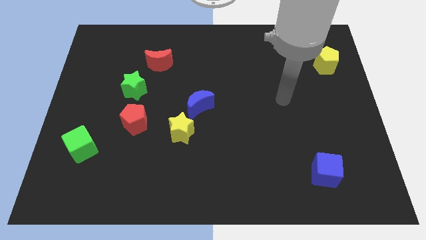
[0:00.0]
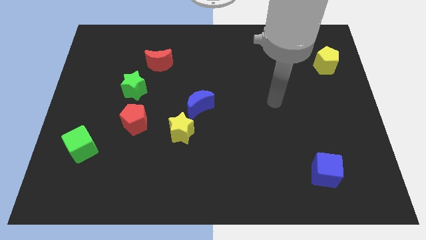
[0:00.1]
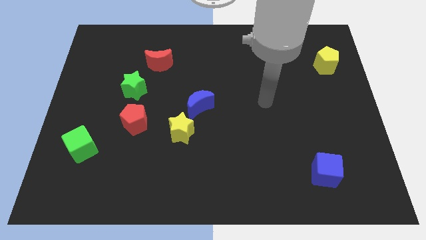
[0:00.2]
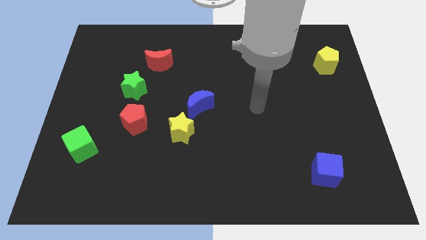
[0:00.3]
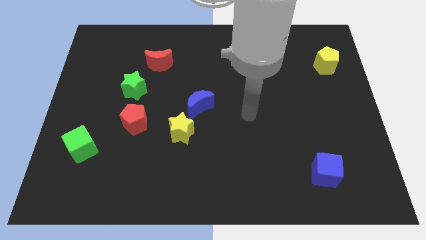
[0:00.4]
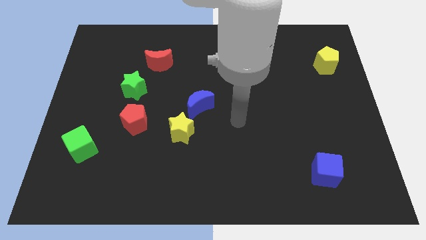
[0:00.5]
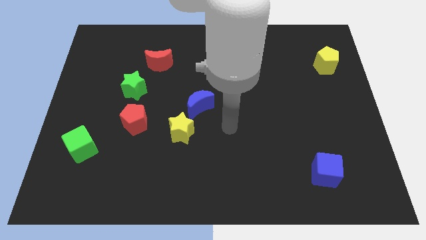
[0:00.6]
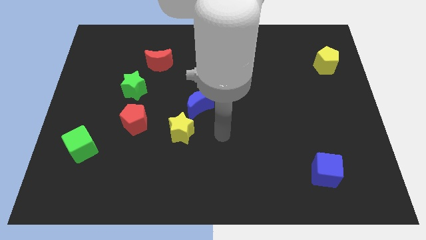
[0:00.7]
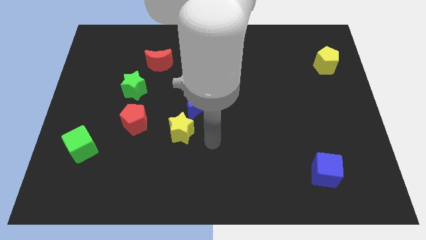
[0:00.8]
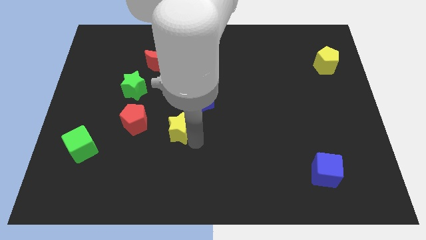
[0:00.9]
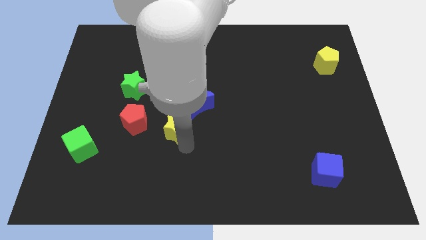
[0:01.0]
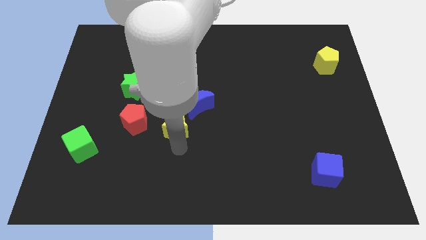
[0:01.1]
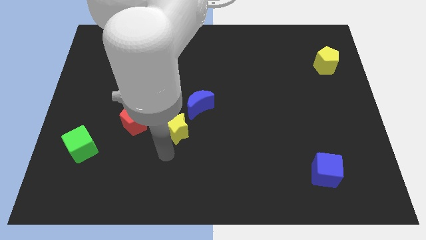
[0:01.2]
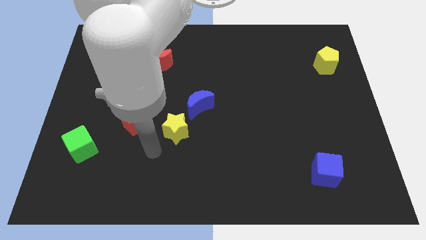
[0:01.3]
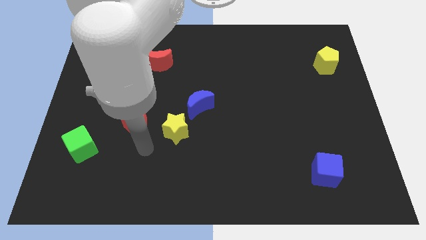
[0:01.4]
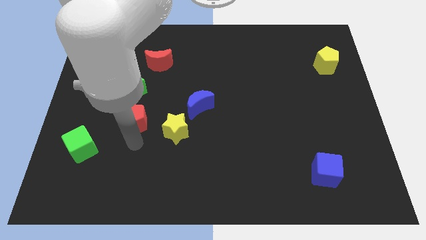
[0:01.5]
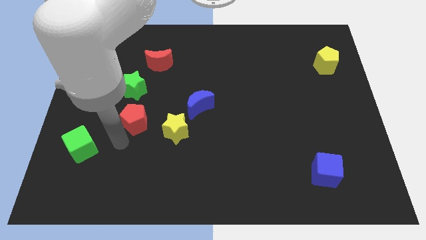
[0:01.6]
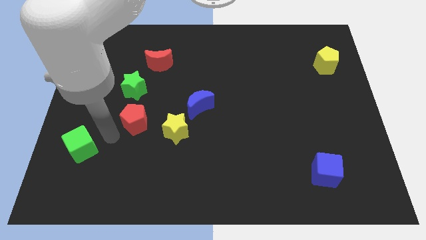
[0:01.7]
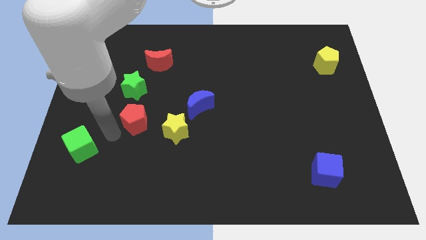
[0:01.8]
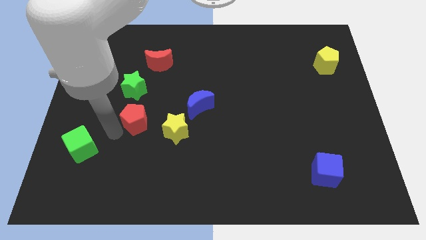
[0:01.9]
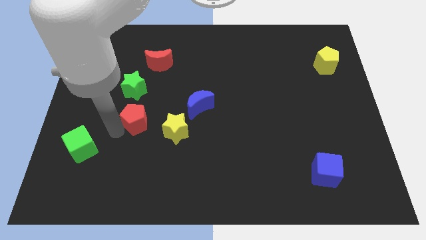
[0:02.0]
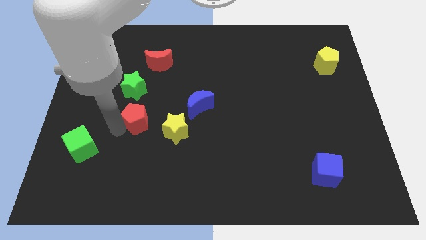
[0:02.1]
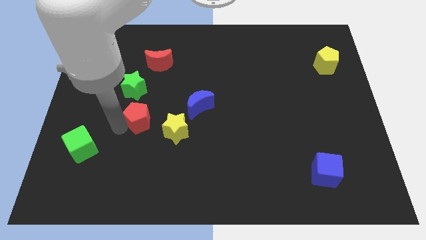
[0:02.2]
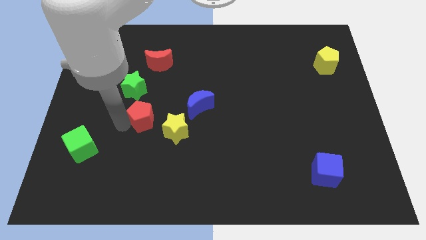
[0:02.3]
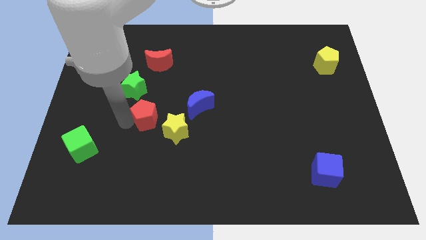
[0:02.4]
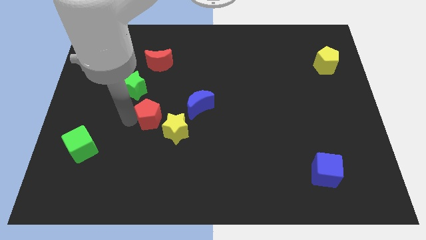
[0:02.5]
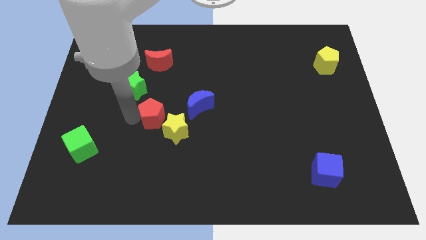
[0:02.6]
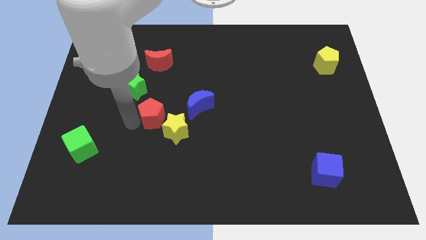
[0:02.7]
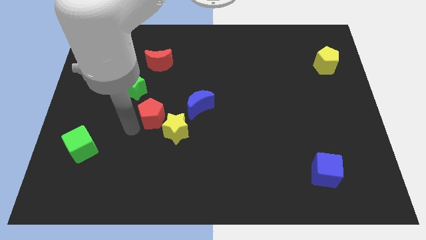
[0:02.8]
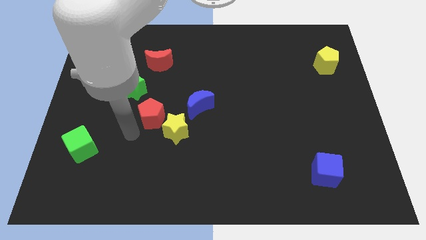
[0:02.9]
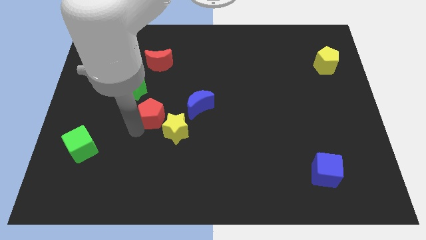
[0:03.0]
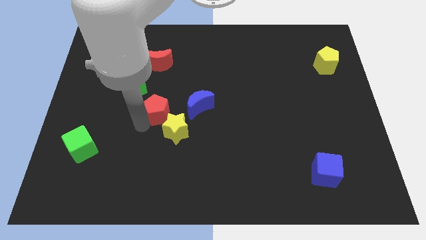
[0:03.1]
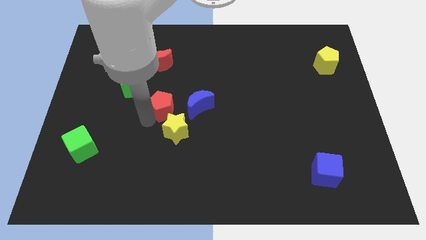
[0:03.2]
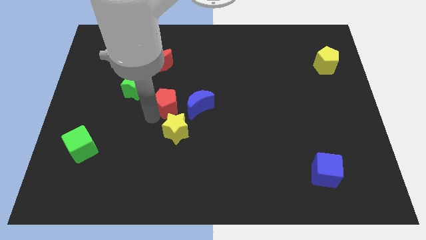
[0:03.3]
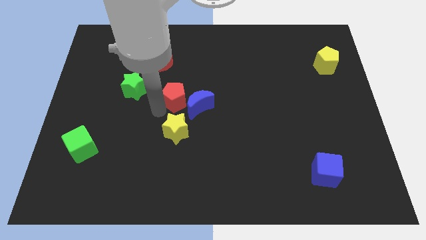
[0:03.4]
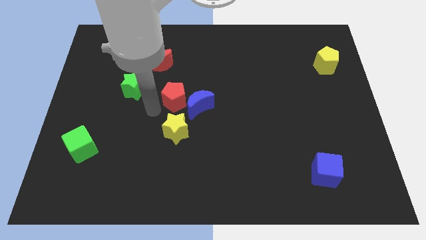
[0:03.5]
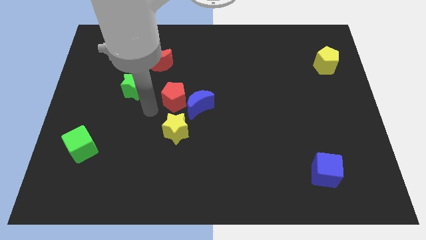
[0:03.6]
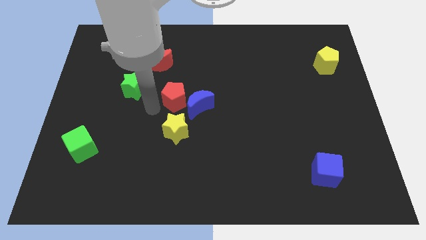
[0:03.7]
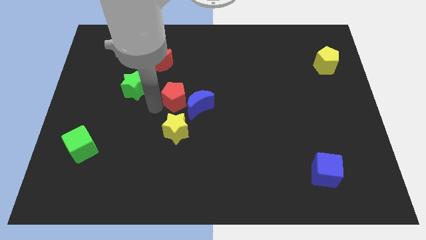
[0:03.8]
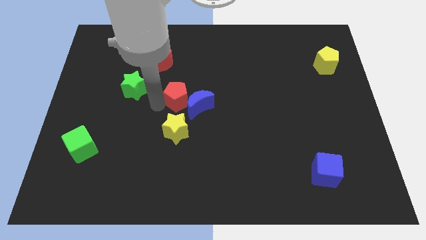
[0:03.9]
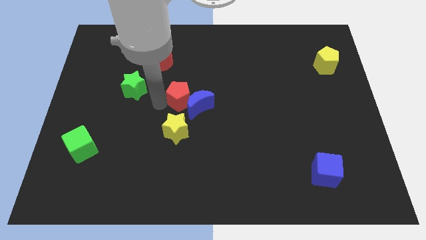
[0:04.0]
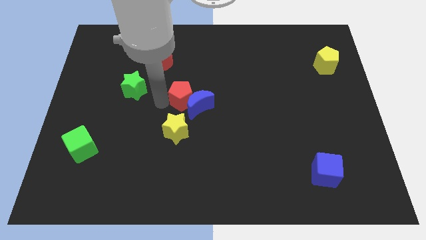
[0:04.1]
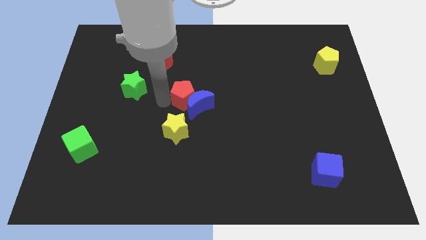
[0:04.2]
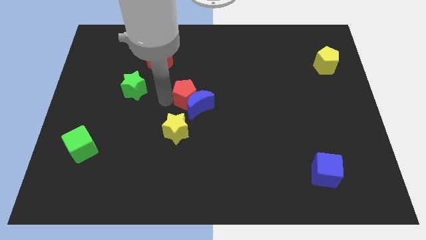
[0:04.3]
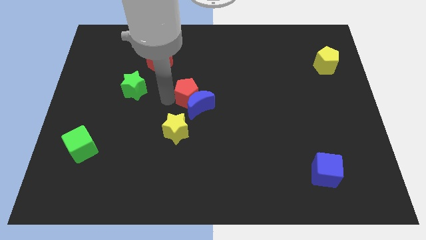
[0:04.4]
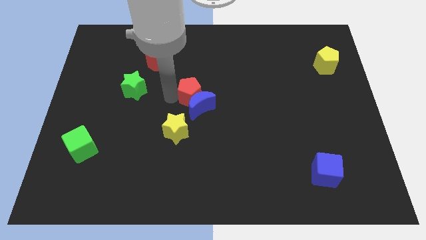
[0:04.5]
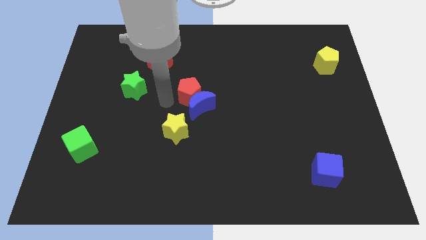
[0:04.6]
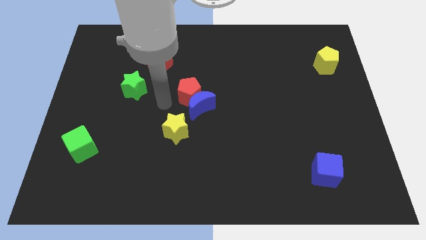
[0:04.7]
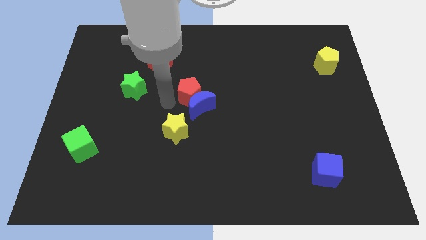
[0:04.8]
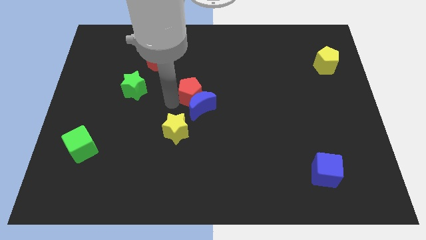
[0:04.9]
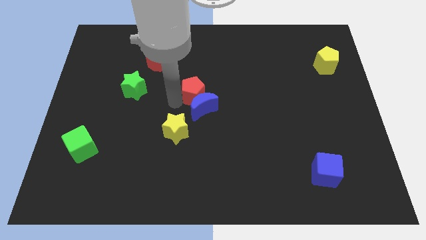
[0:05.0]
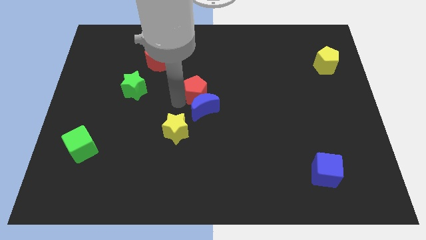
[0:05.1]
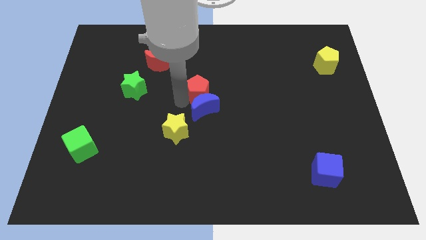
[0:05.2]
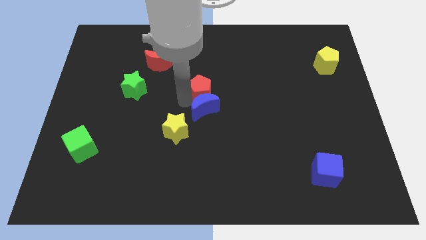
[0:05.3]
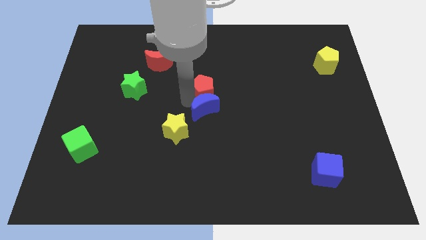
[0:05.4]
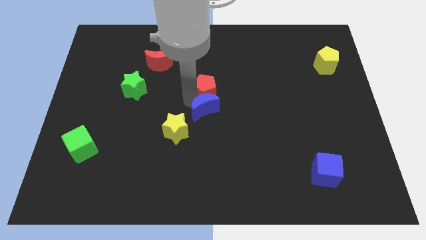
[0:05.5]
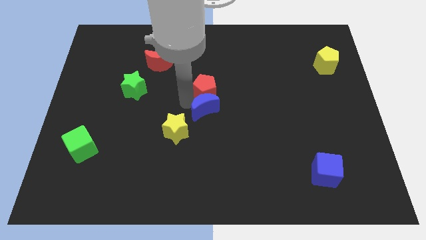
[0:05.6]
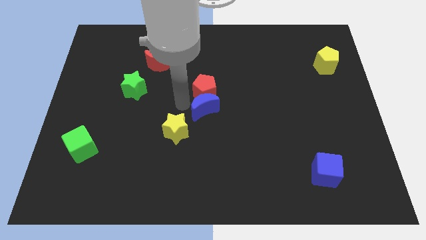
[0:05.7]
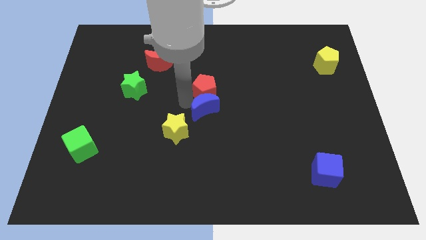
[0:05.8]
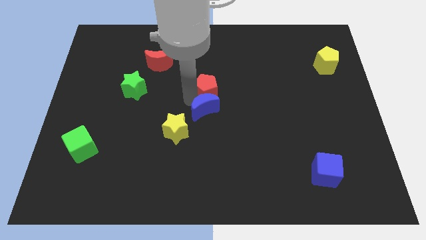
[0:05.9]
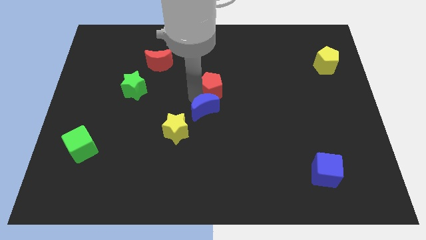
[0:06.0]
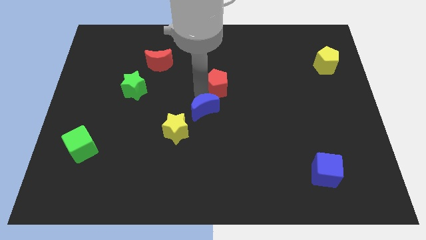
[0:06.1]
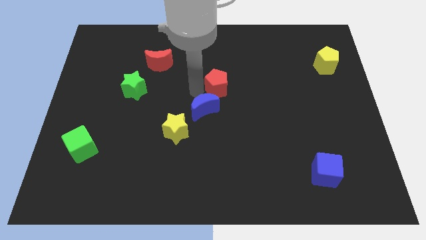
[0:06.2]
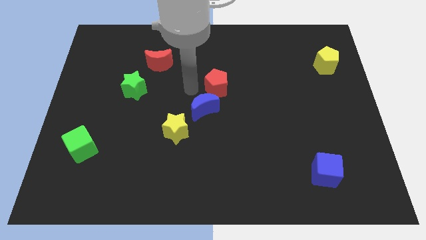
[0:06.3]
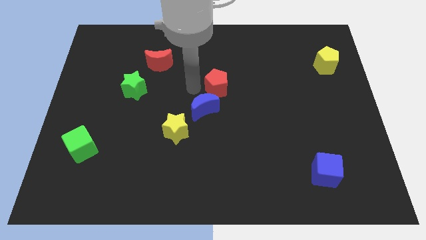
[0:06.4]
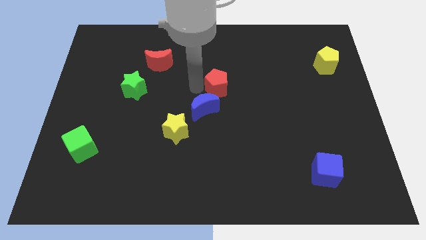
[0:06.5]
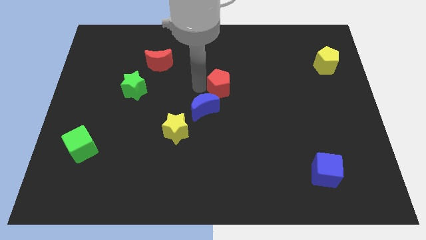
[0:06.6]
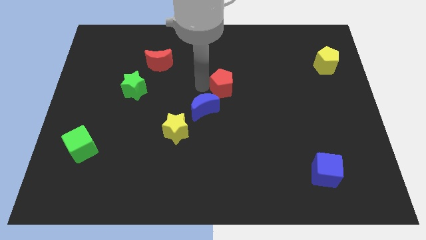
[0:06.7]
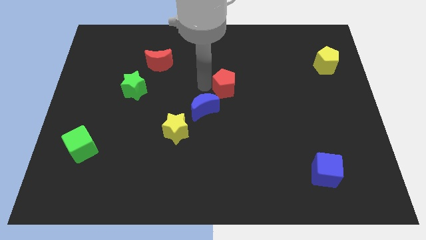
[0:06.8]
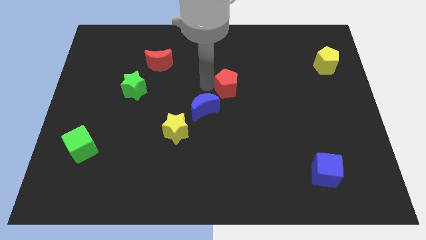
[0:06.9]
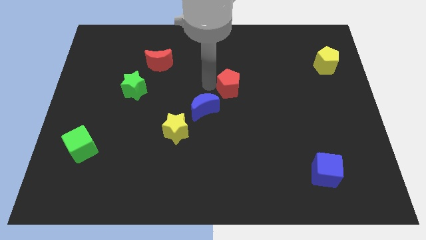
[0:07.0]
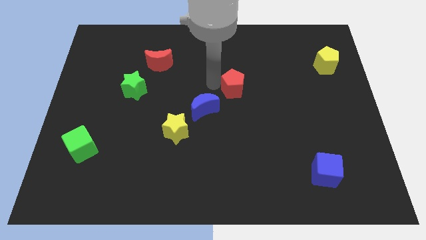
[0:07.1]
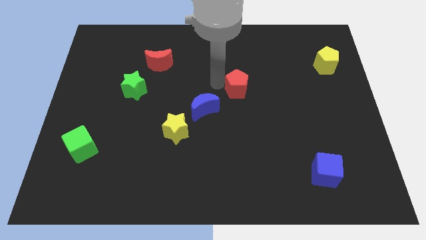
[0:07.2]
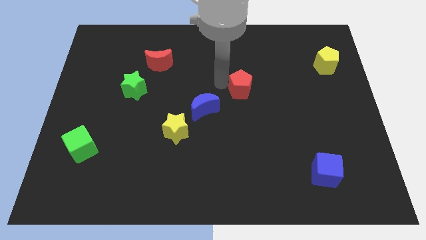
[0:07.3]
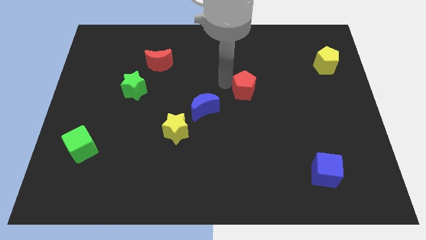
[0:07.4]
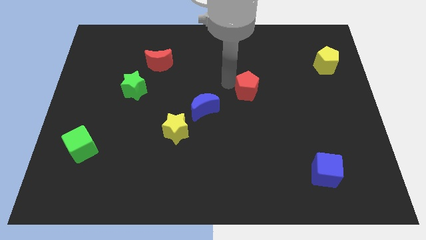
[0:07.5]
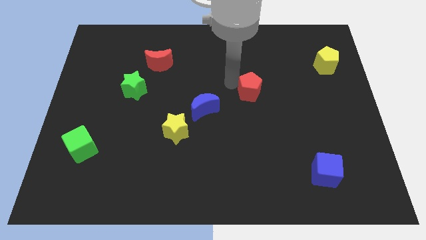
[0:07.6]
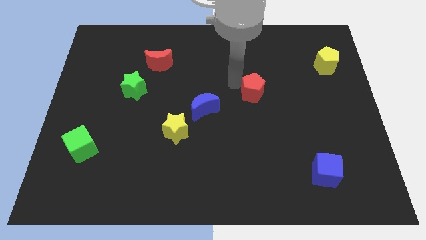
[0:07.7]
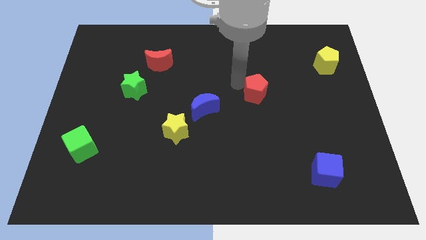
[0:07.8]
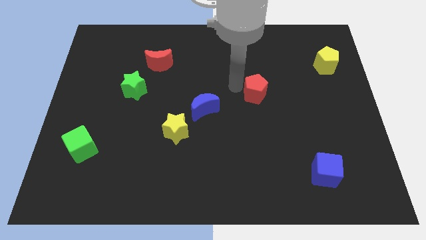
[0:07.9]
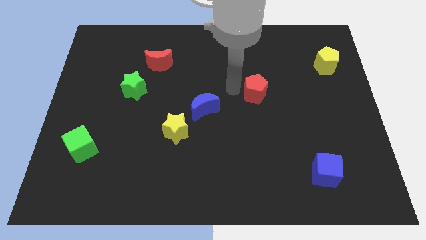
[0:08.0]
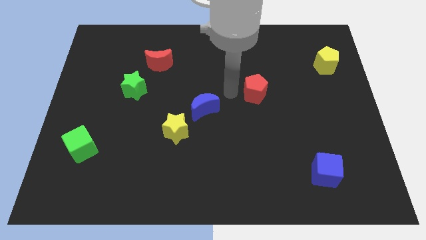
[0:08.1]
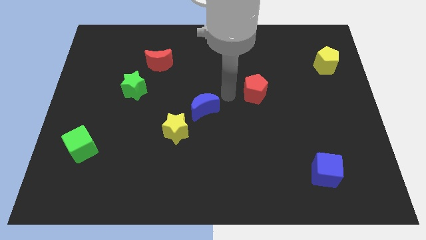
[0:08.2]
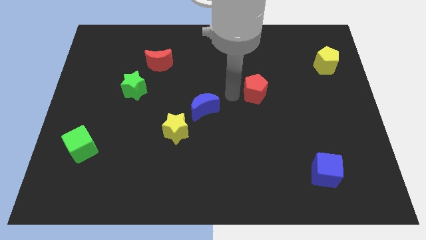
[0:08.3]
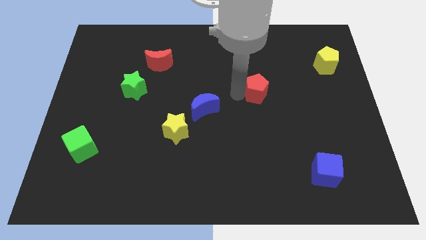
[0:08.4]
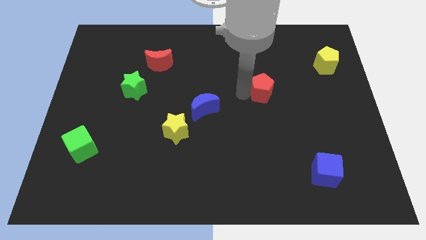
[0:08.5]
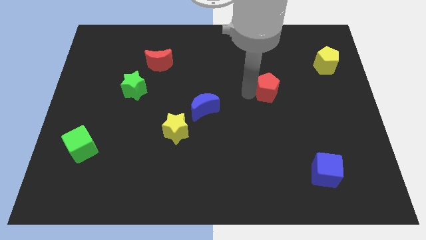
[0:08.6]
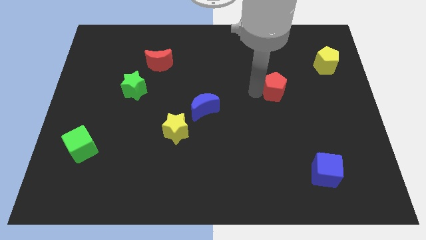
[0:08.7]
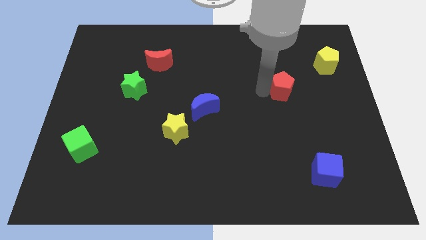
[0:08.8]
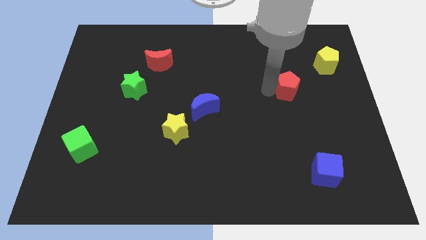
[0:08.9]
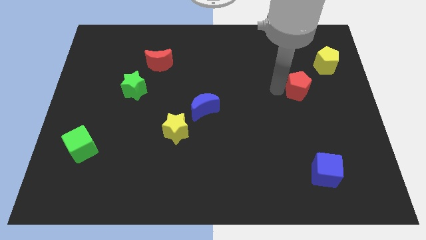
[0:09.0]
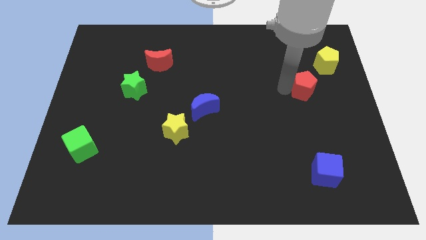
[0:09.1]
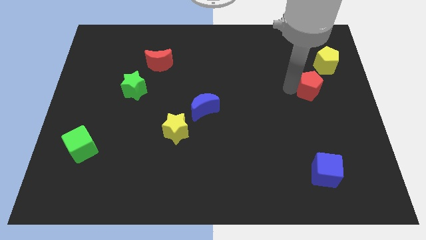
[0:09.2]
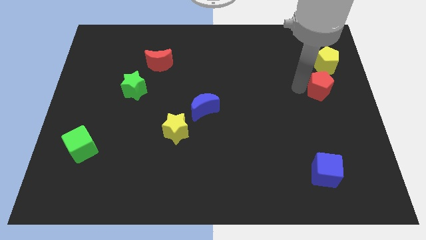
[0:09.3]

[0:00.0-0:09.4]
move the red pentagon to the right side of the board
